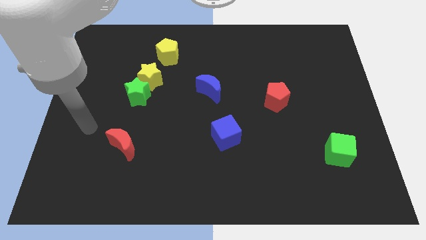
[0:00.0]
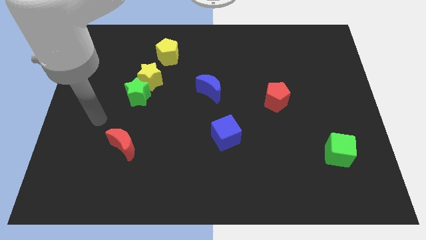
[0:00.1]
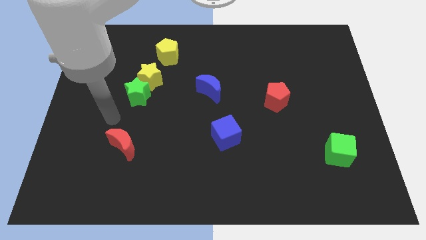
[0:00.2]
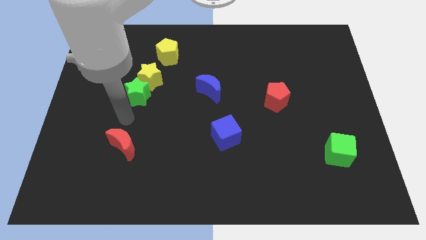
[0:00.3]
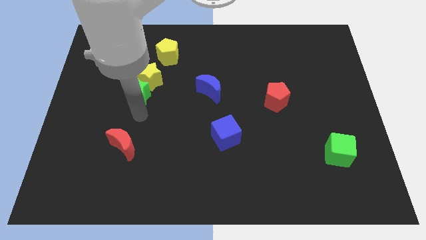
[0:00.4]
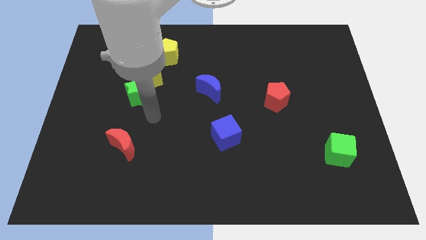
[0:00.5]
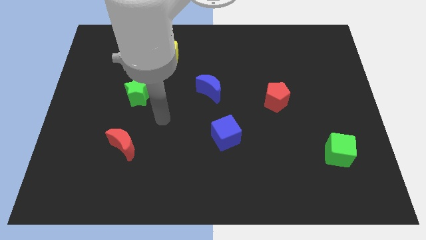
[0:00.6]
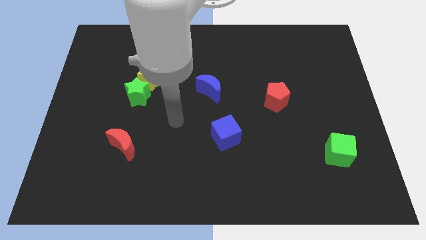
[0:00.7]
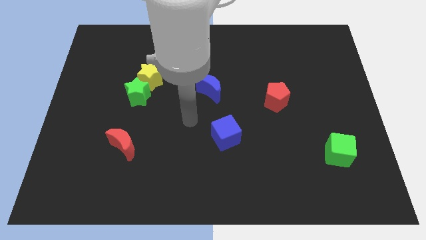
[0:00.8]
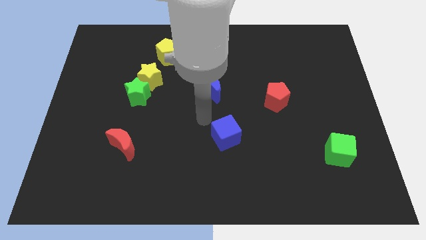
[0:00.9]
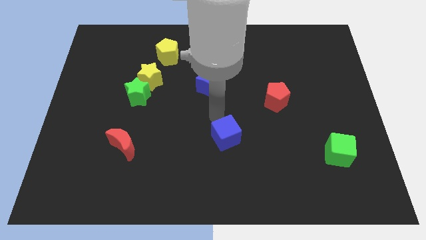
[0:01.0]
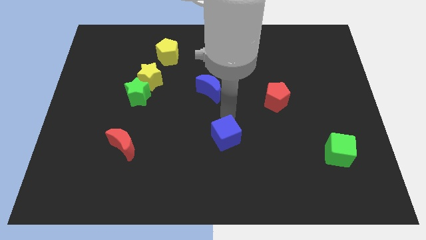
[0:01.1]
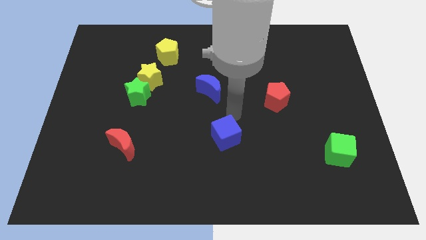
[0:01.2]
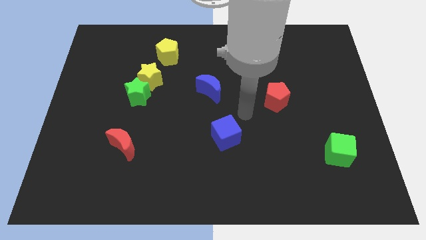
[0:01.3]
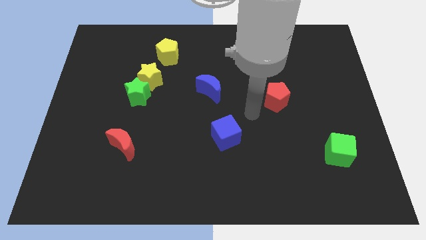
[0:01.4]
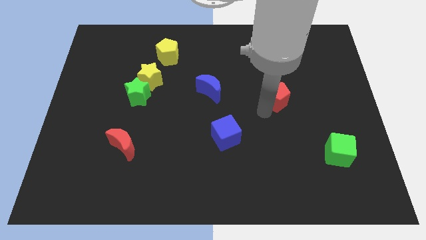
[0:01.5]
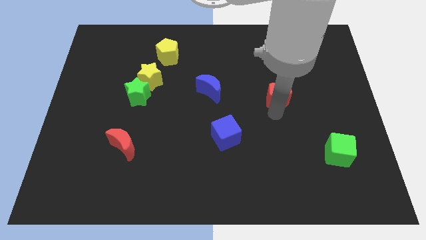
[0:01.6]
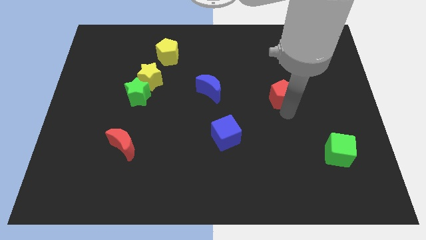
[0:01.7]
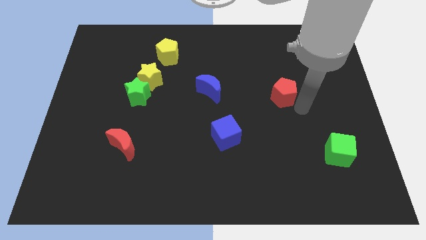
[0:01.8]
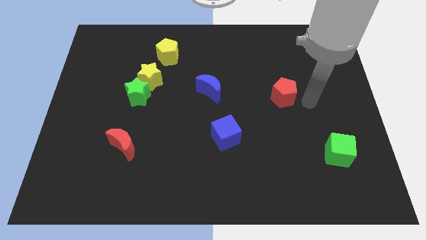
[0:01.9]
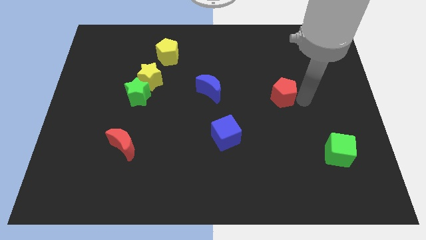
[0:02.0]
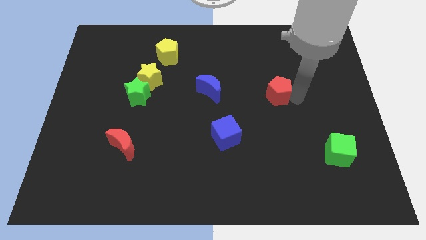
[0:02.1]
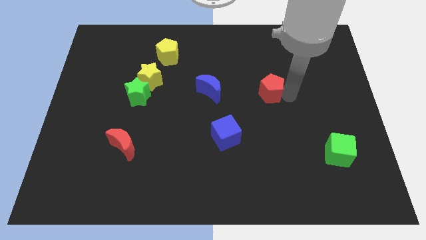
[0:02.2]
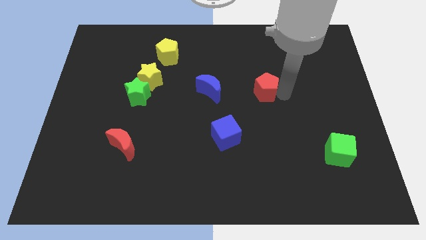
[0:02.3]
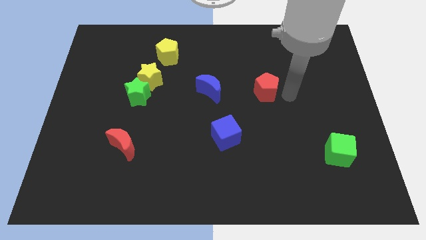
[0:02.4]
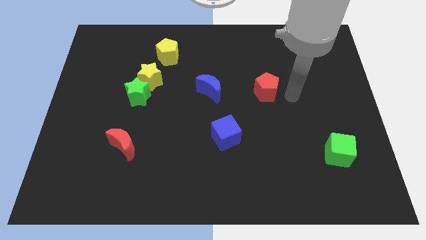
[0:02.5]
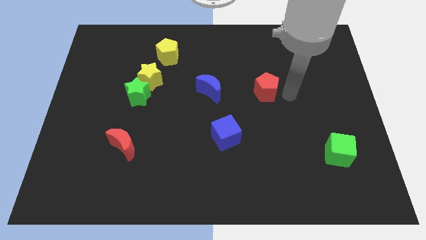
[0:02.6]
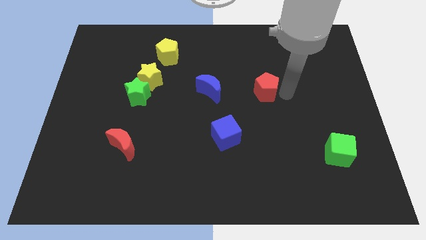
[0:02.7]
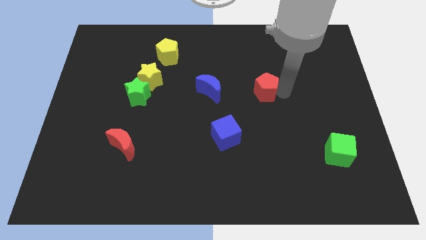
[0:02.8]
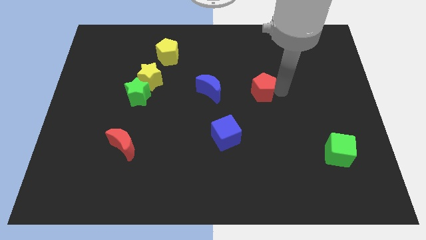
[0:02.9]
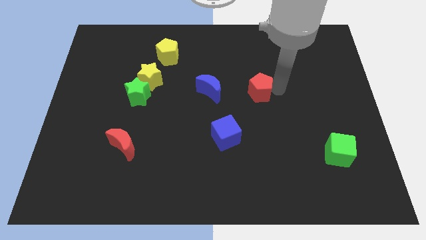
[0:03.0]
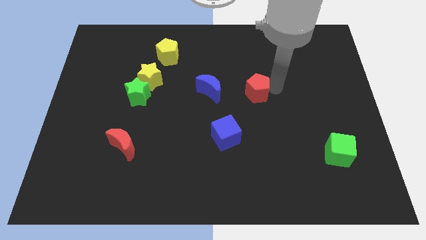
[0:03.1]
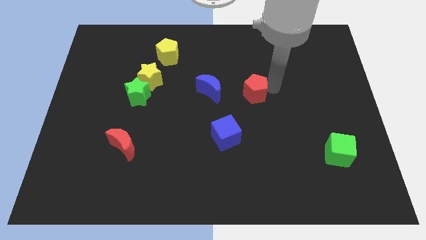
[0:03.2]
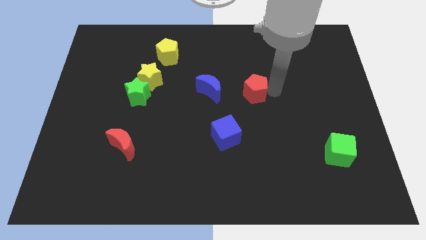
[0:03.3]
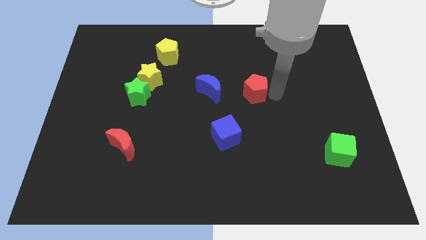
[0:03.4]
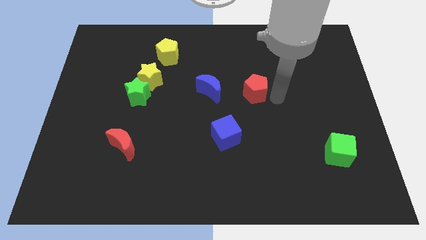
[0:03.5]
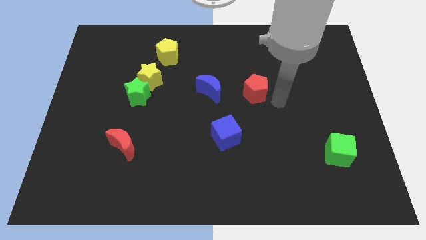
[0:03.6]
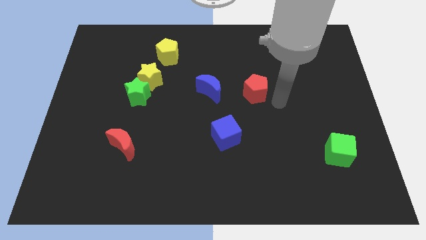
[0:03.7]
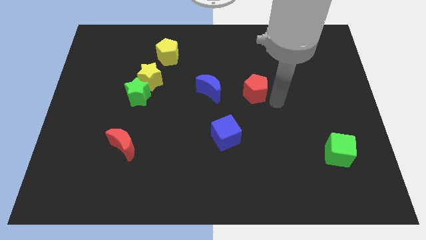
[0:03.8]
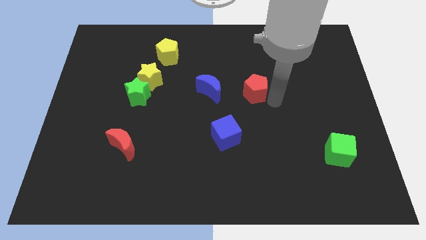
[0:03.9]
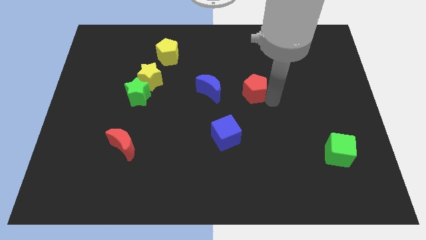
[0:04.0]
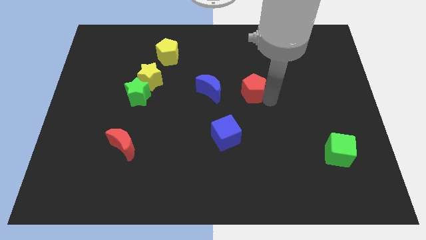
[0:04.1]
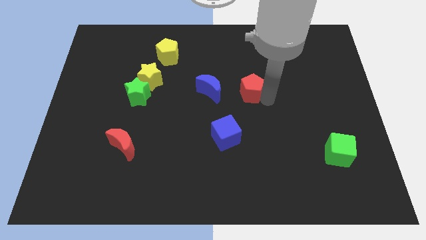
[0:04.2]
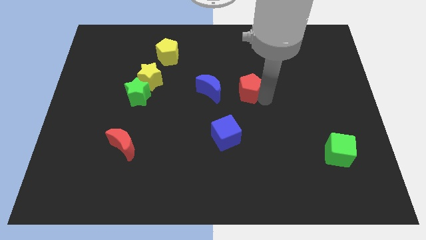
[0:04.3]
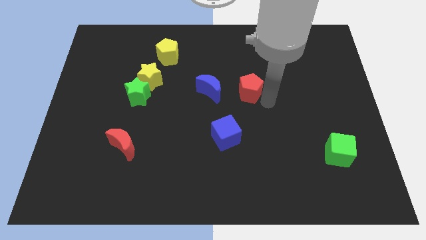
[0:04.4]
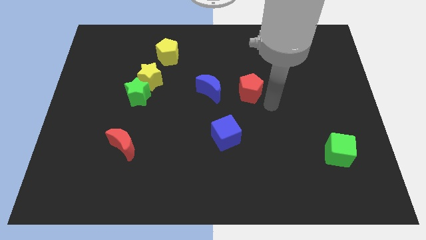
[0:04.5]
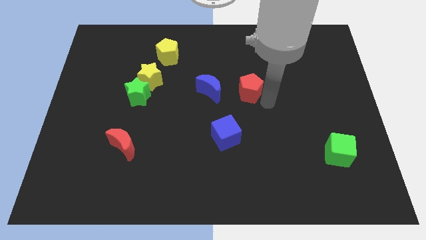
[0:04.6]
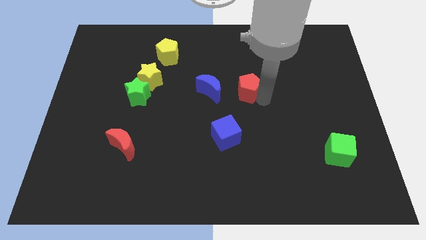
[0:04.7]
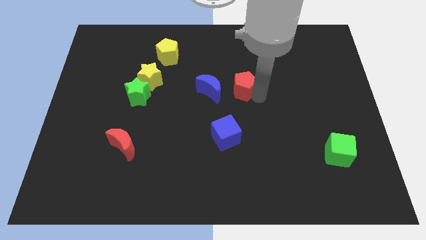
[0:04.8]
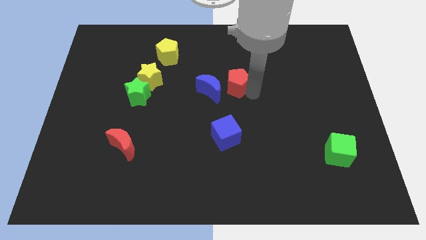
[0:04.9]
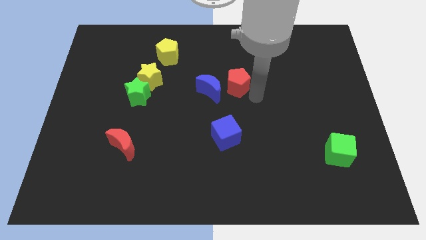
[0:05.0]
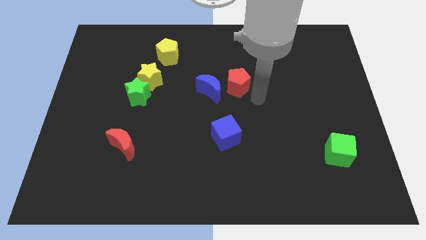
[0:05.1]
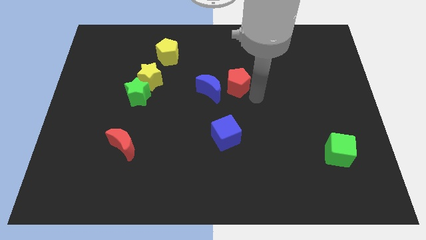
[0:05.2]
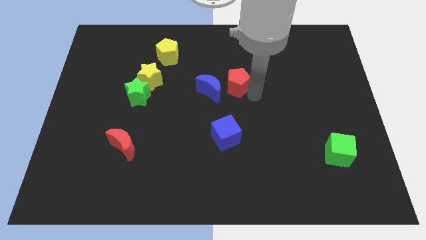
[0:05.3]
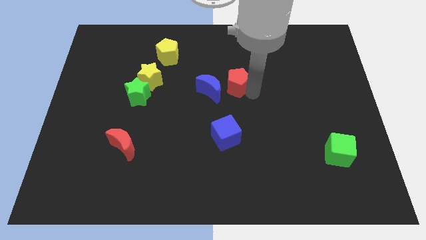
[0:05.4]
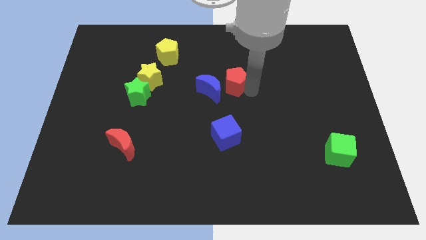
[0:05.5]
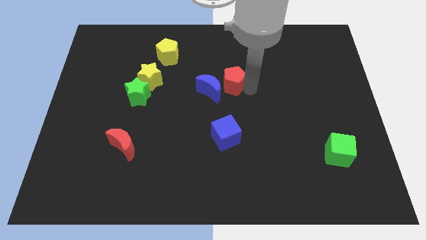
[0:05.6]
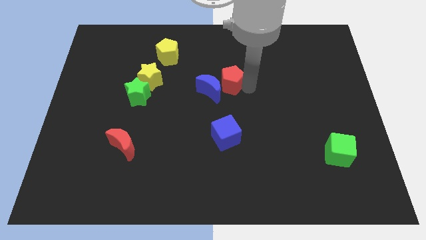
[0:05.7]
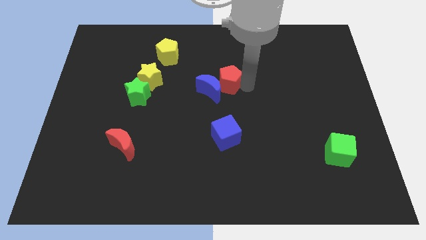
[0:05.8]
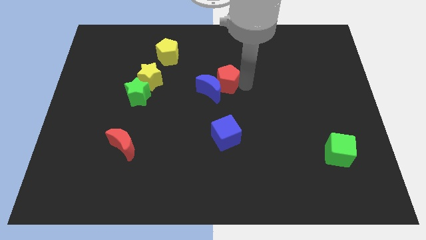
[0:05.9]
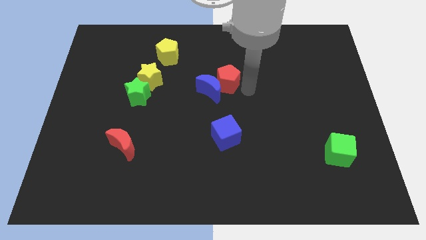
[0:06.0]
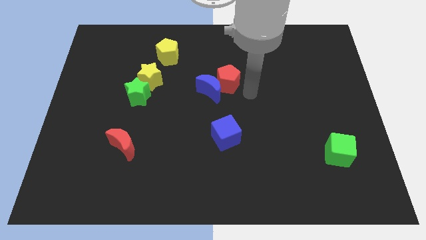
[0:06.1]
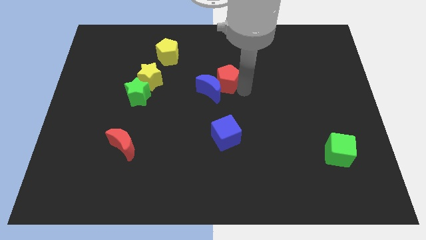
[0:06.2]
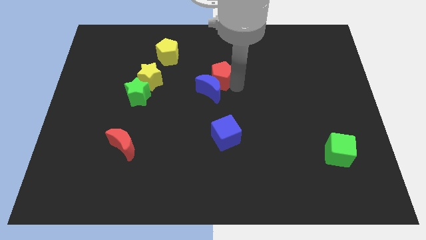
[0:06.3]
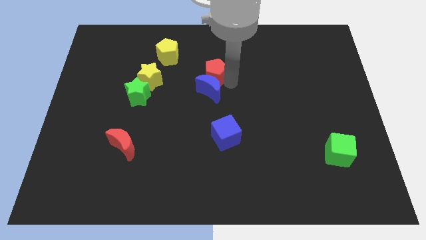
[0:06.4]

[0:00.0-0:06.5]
move the red pentagon to the right of the yellow star

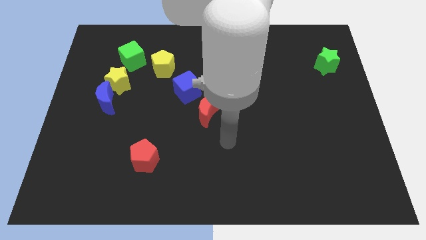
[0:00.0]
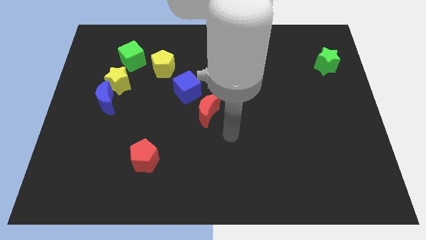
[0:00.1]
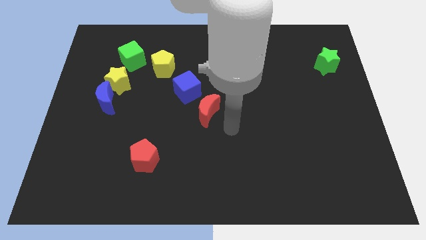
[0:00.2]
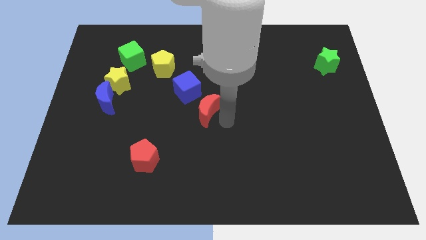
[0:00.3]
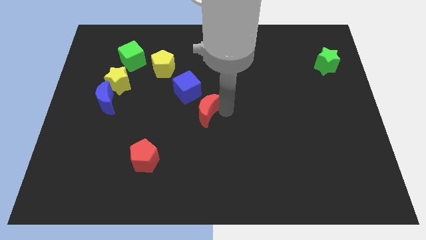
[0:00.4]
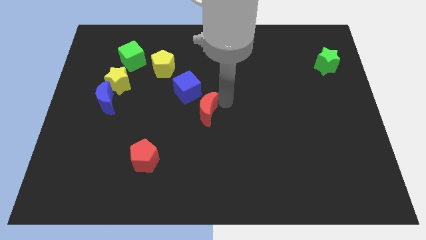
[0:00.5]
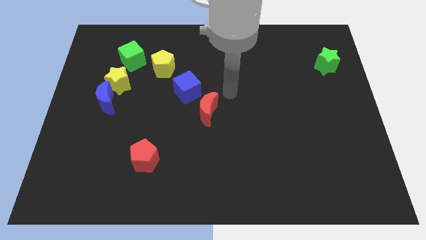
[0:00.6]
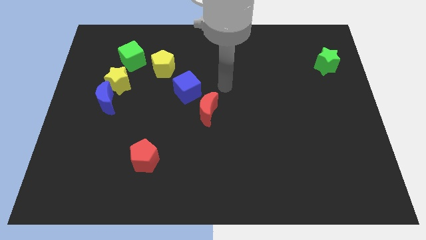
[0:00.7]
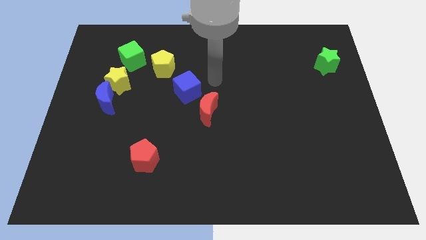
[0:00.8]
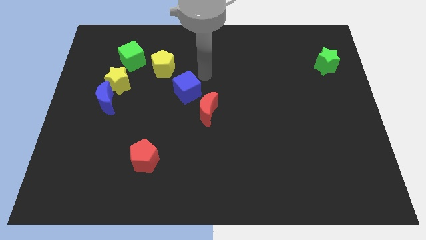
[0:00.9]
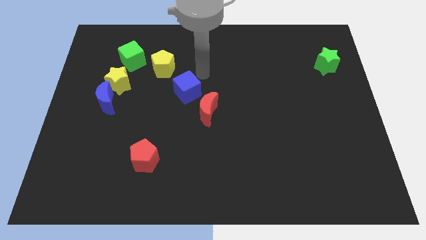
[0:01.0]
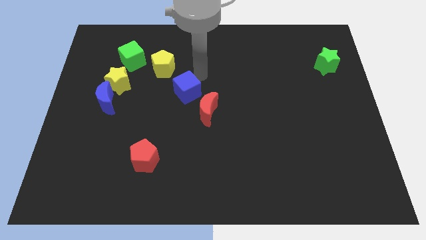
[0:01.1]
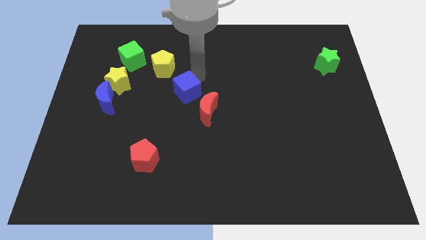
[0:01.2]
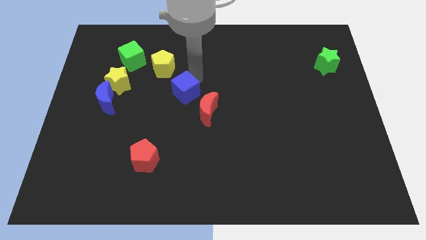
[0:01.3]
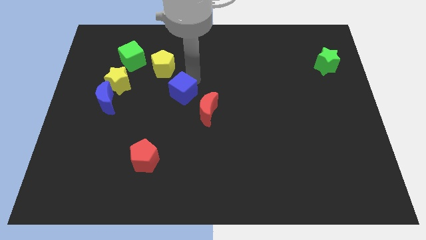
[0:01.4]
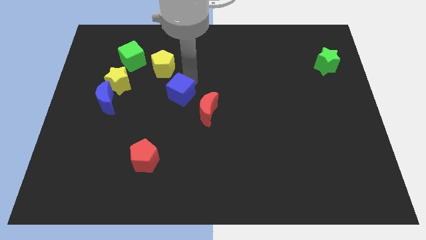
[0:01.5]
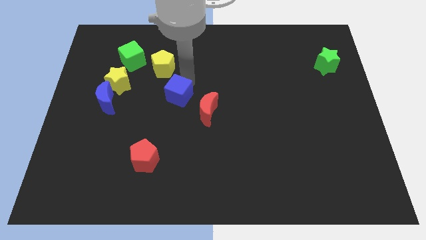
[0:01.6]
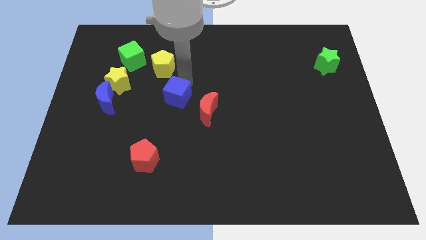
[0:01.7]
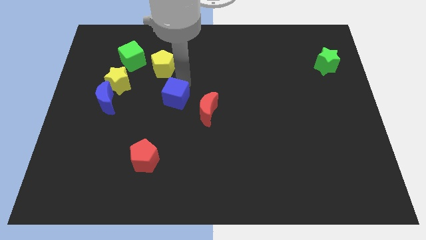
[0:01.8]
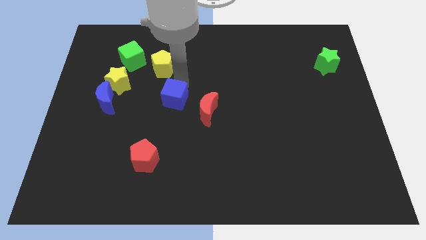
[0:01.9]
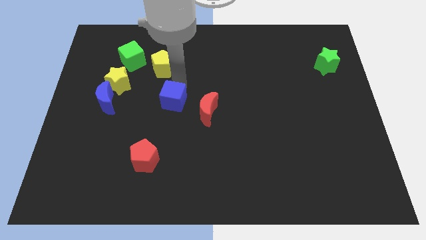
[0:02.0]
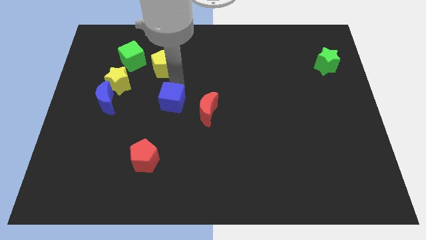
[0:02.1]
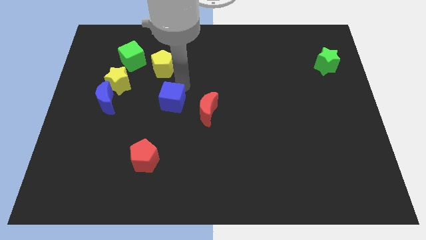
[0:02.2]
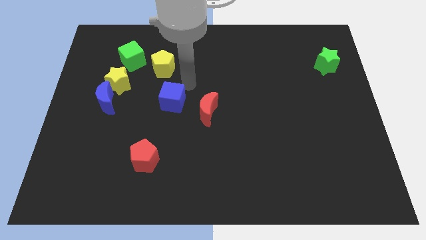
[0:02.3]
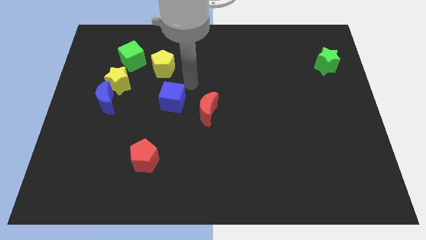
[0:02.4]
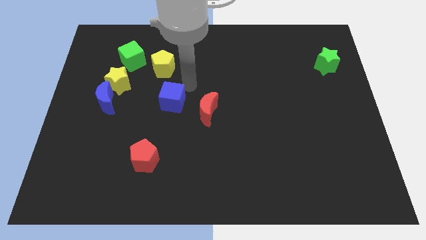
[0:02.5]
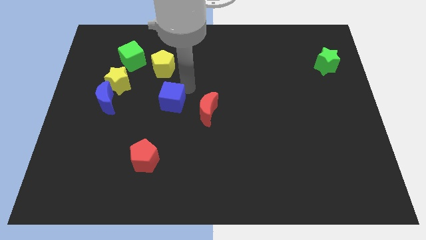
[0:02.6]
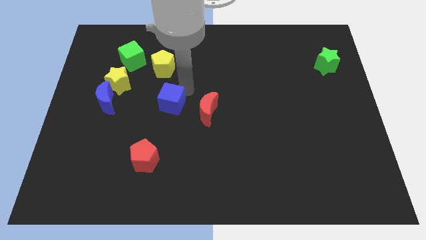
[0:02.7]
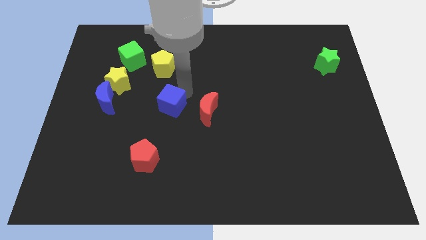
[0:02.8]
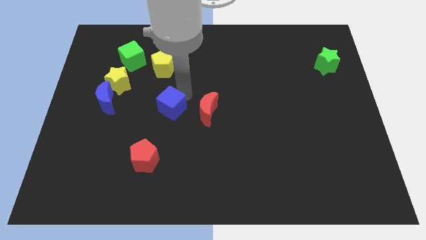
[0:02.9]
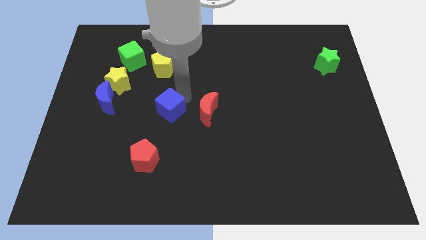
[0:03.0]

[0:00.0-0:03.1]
put the blue cube above the red pentagon
